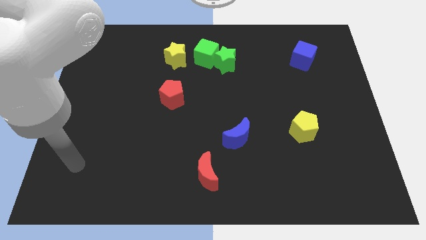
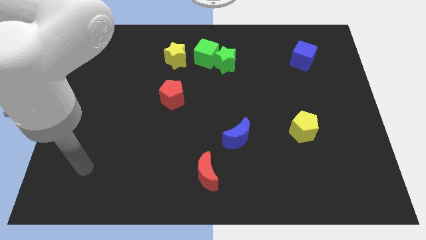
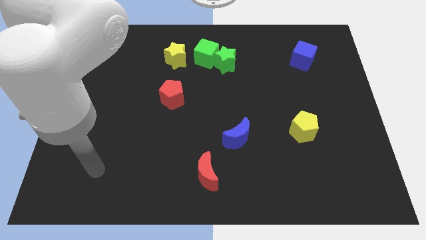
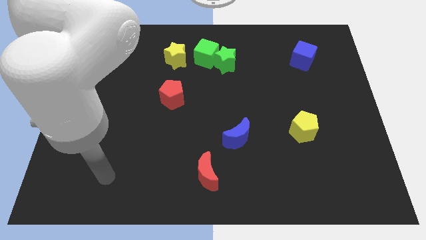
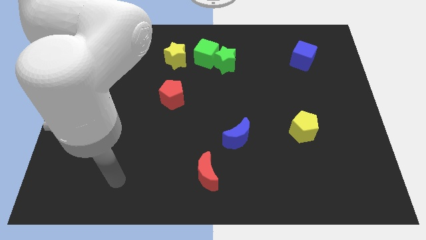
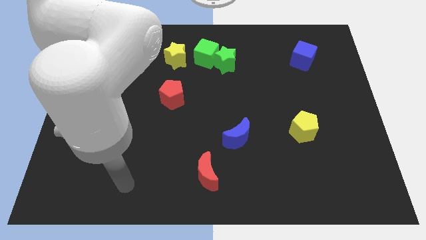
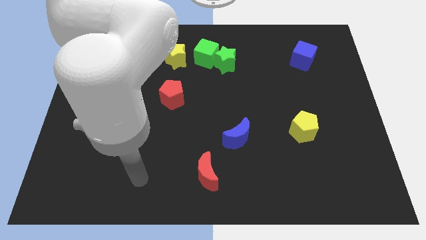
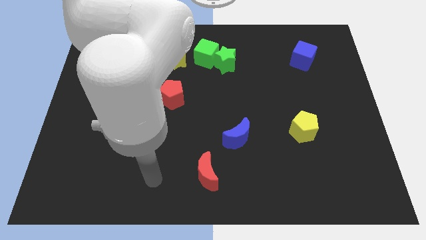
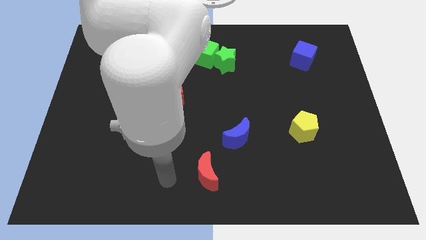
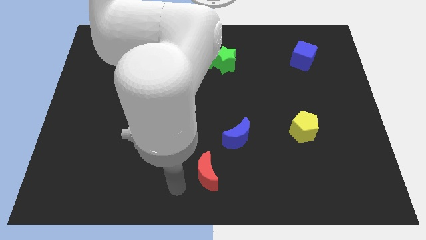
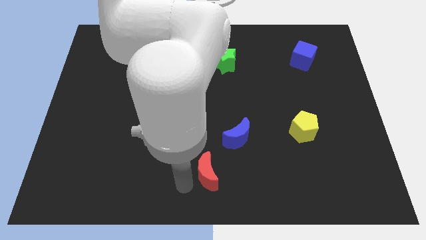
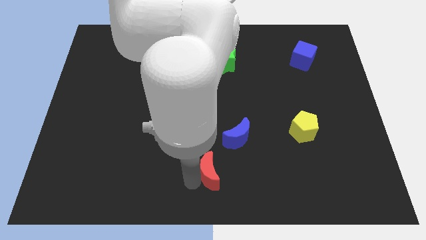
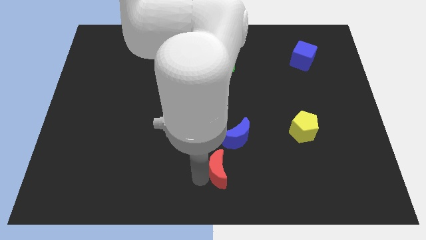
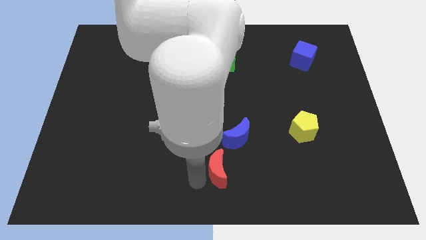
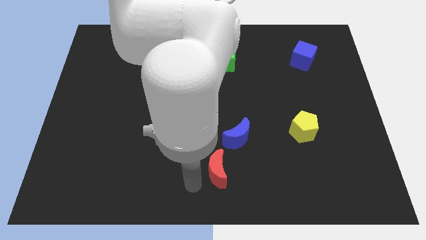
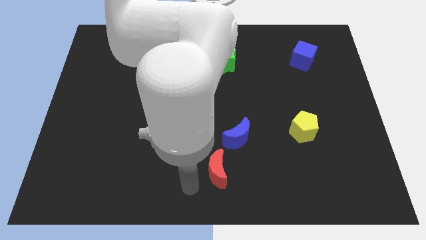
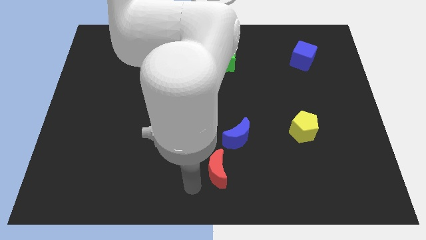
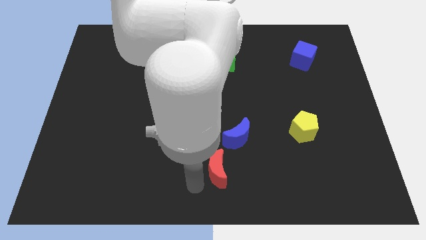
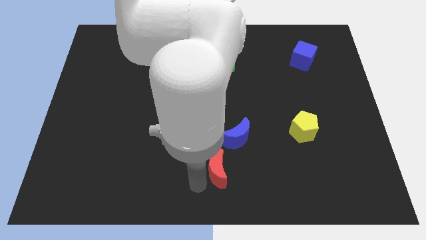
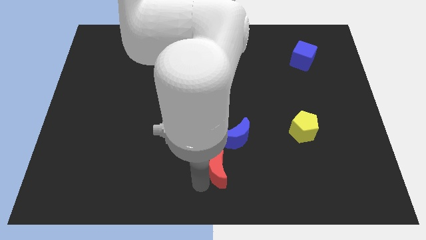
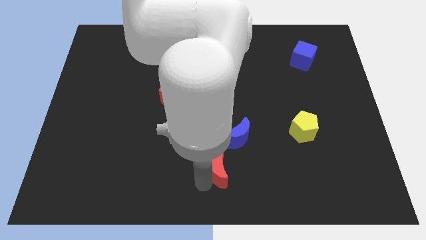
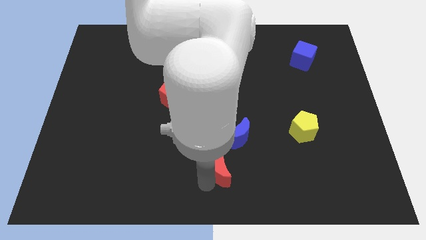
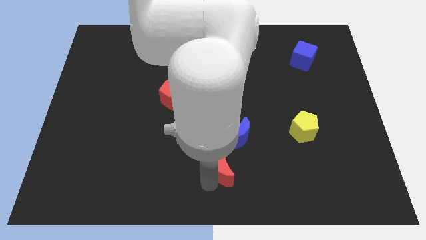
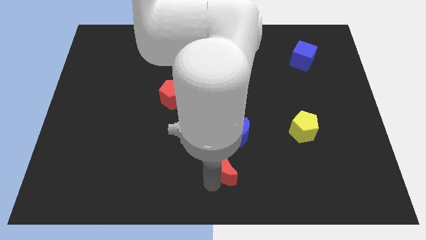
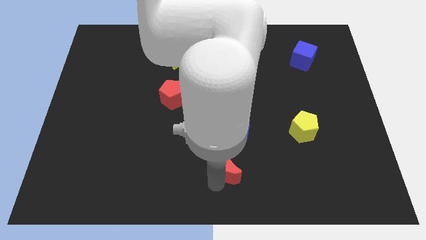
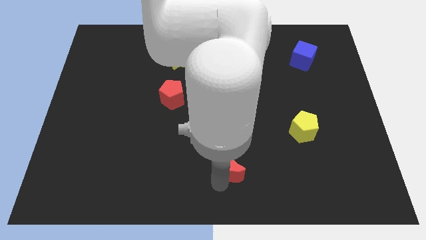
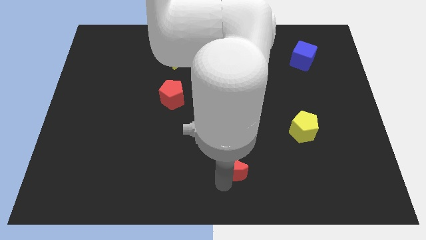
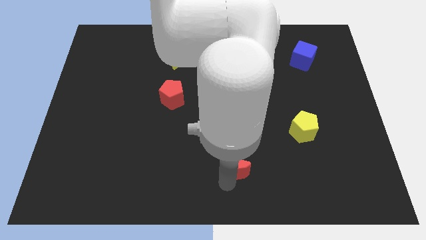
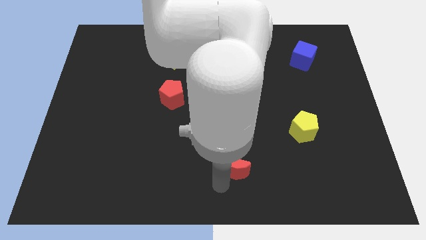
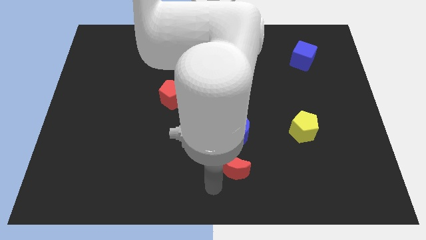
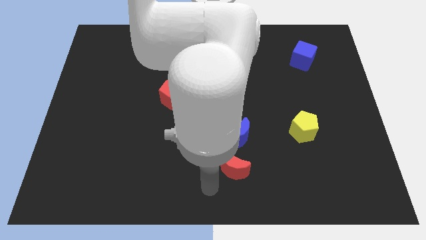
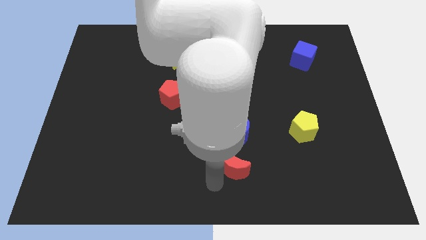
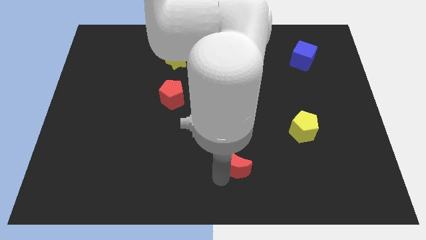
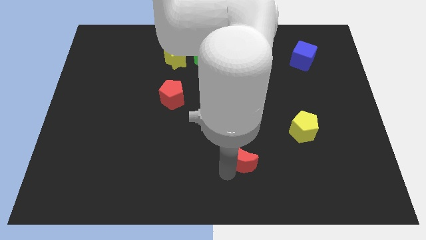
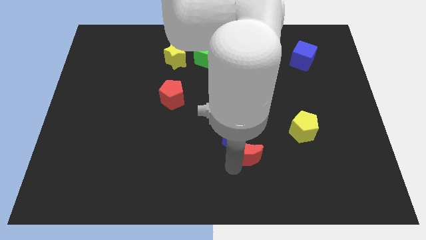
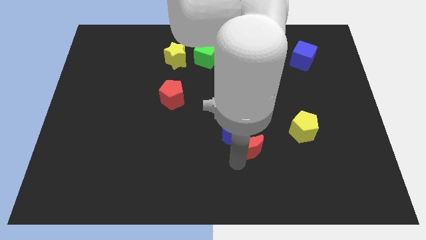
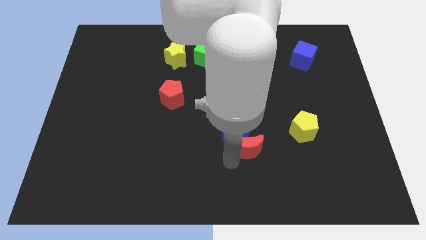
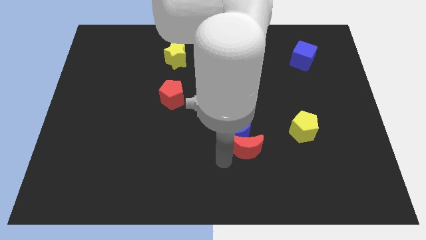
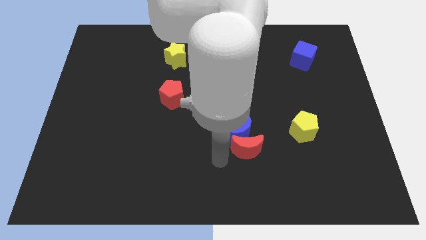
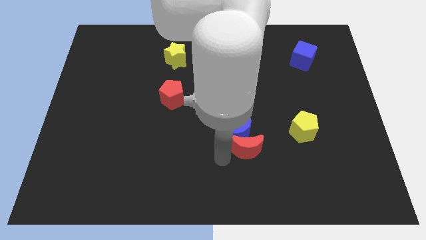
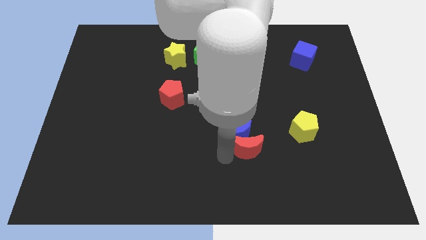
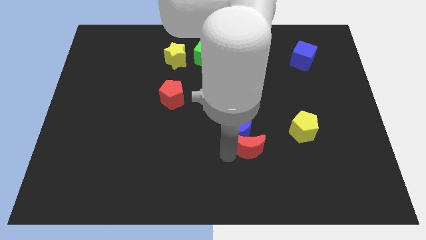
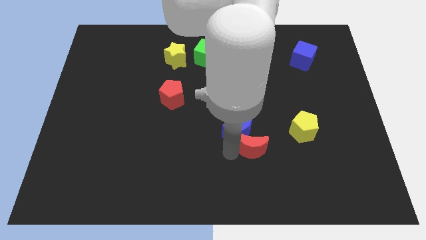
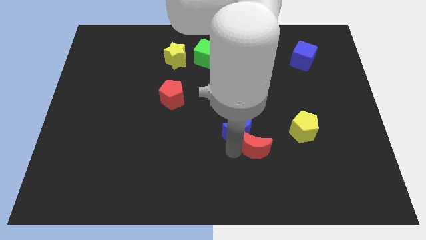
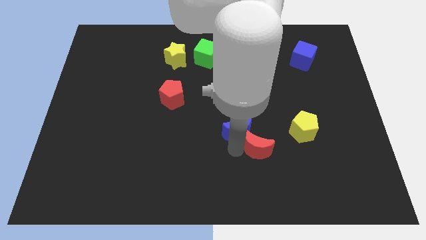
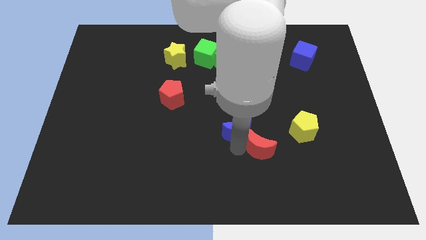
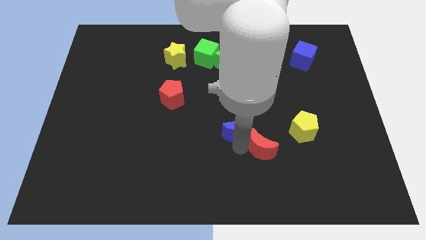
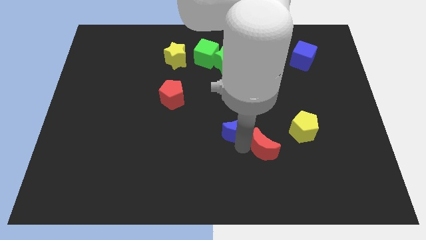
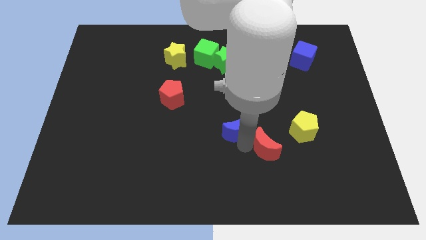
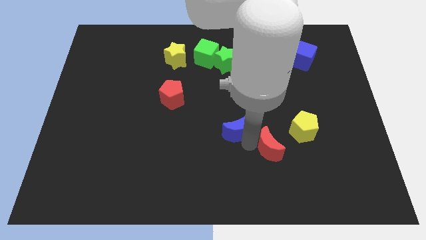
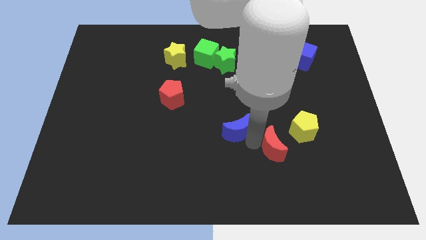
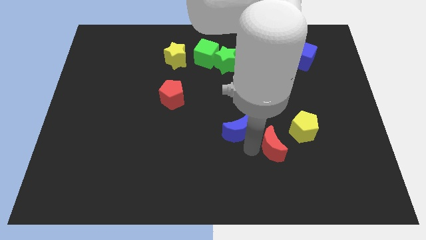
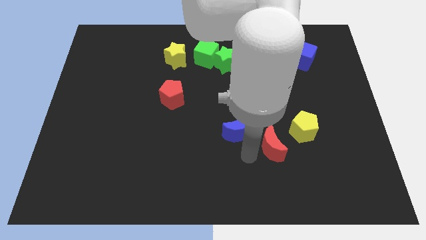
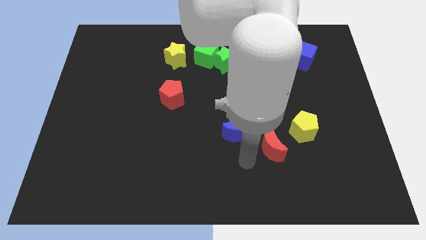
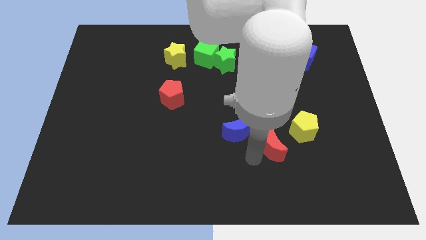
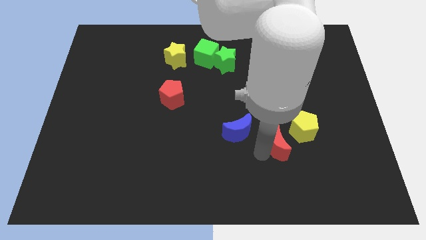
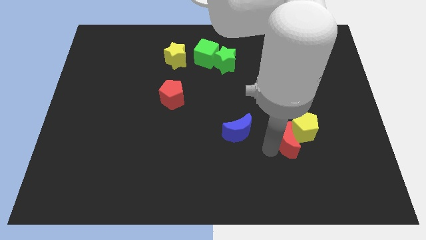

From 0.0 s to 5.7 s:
put the red moon towards the yellow pentagon

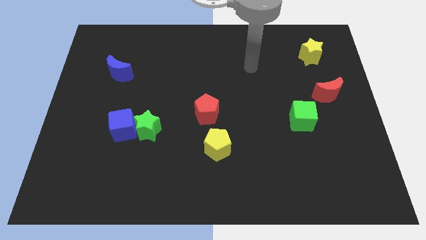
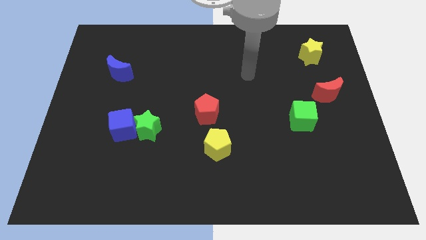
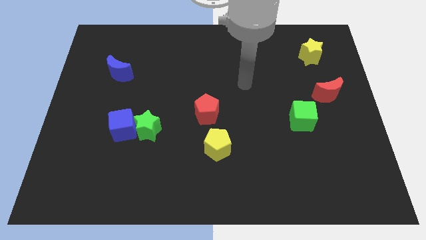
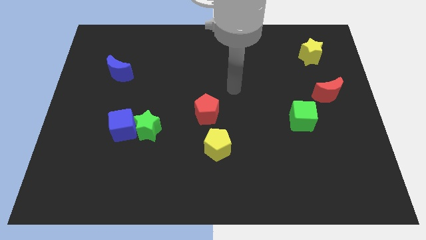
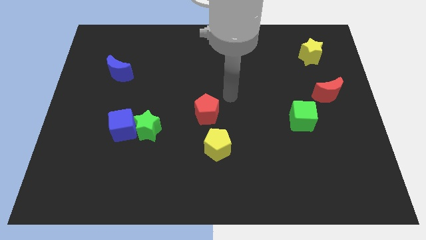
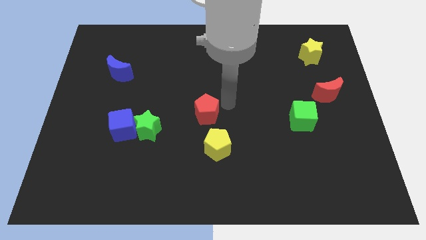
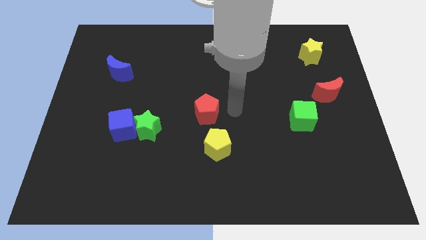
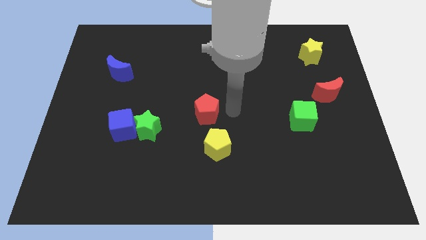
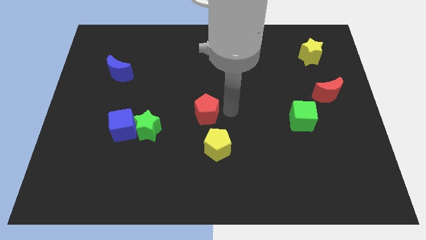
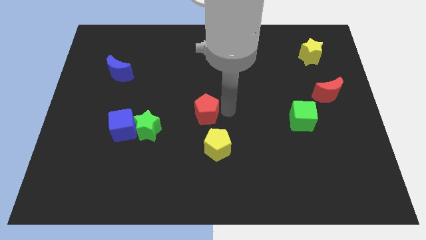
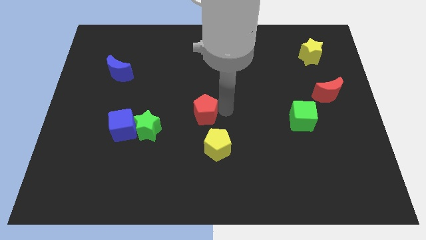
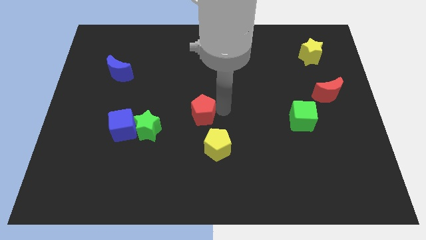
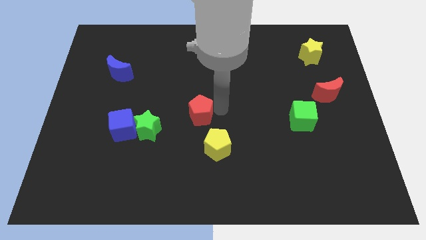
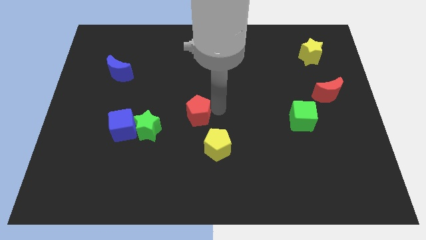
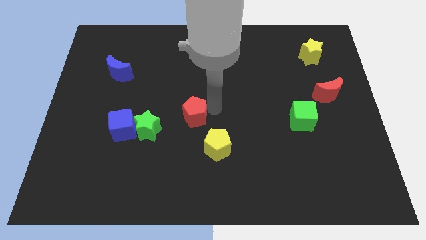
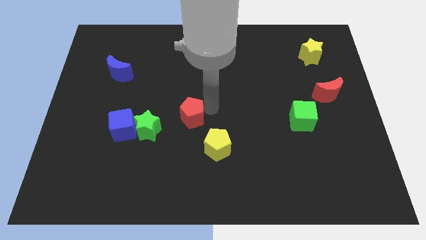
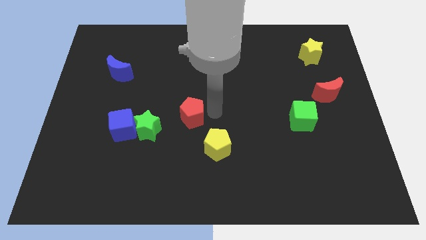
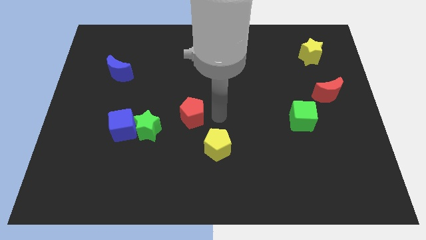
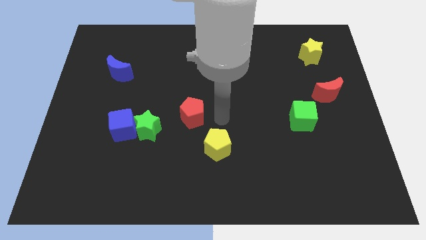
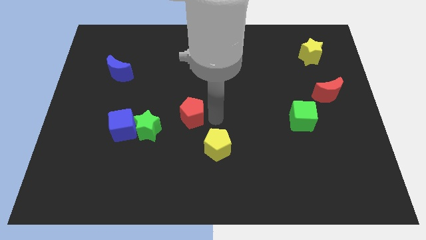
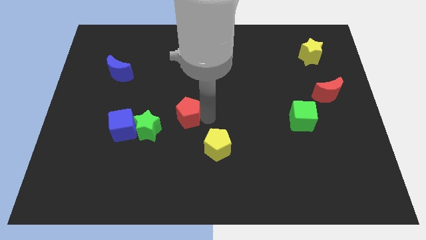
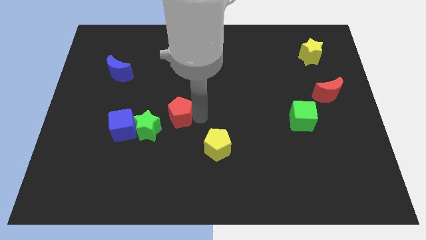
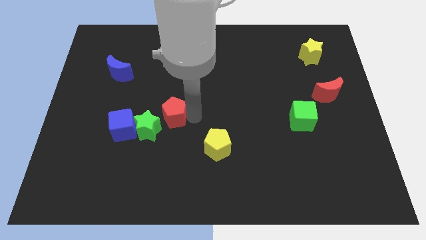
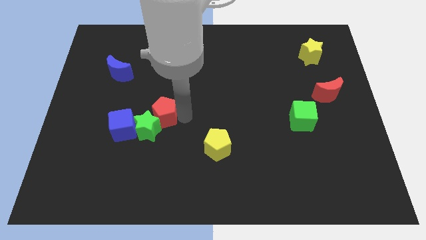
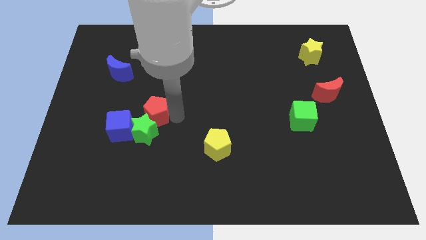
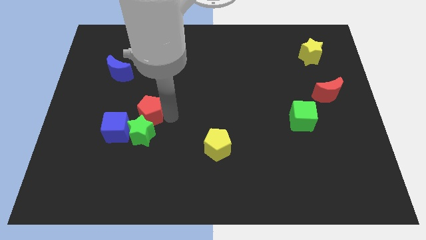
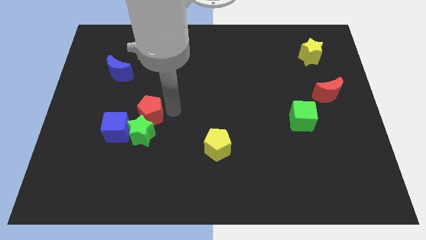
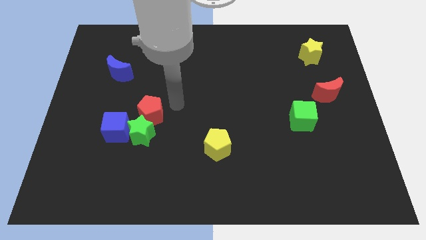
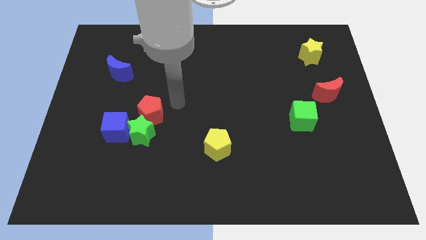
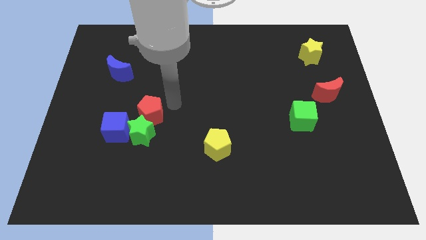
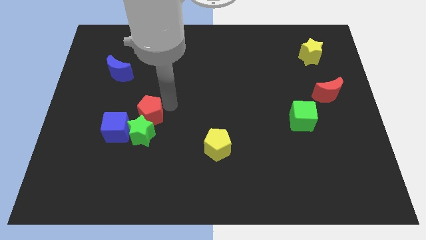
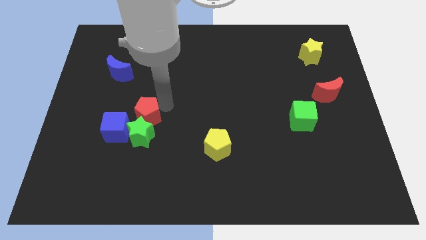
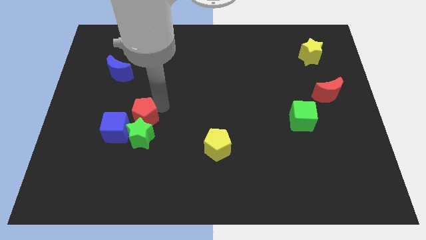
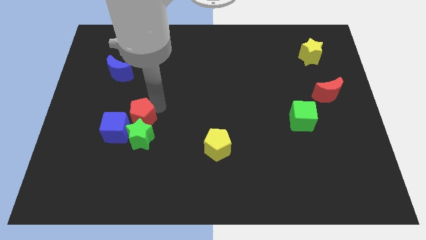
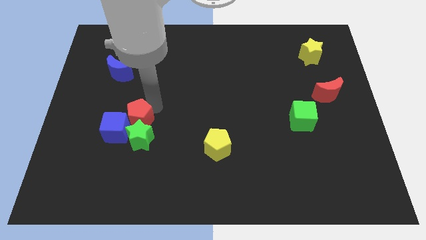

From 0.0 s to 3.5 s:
push the red pentagon towards the blue cube
